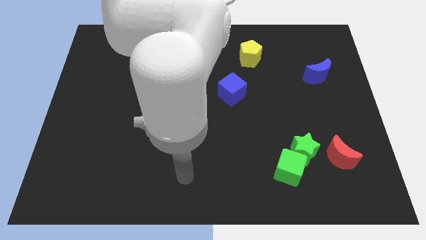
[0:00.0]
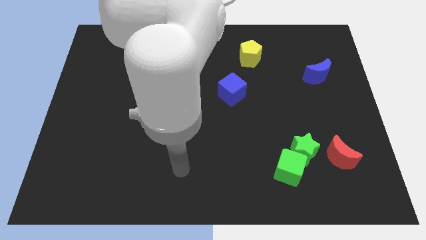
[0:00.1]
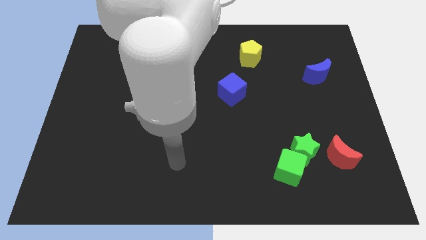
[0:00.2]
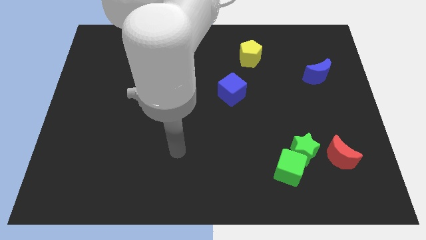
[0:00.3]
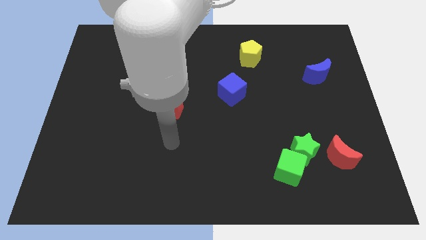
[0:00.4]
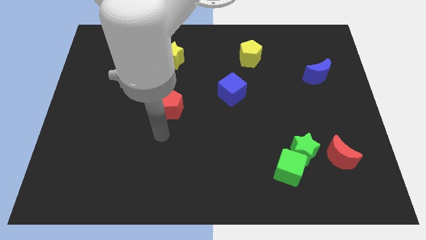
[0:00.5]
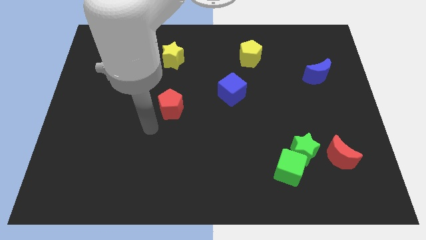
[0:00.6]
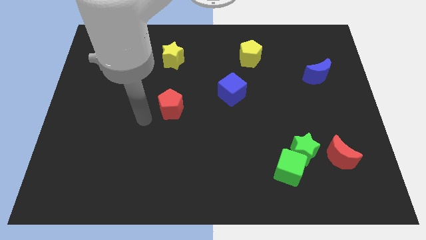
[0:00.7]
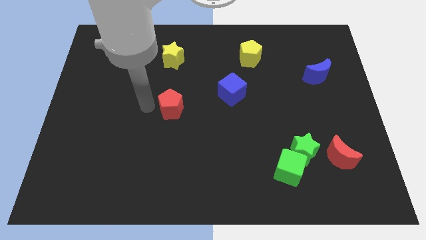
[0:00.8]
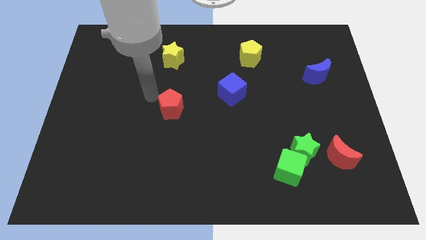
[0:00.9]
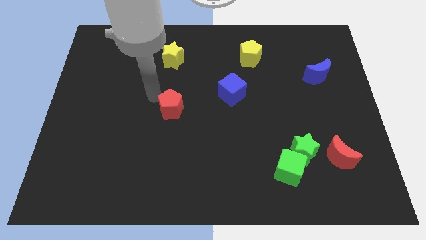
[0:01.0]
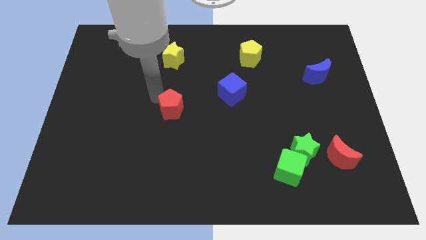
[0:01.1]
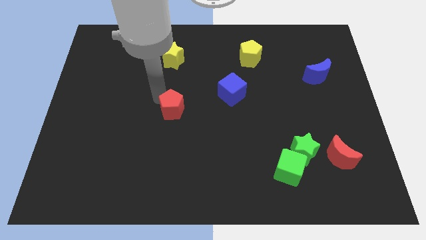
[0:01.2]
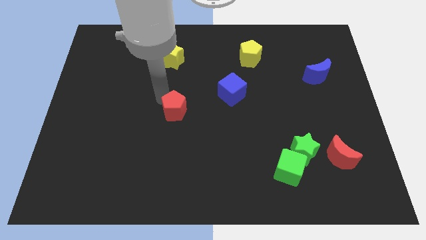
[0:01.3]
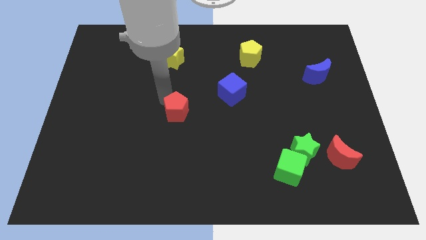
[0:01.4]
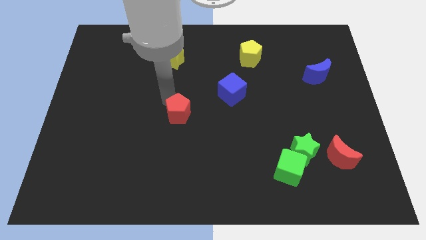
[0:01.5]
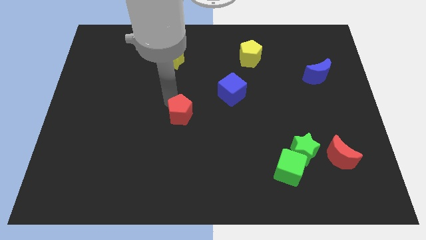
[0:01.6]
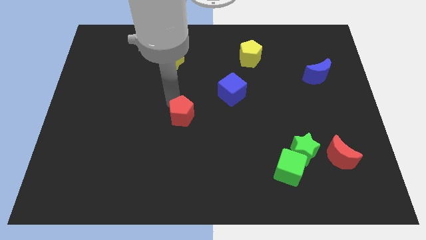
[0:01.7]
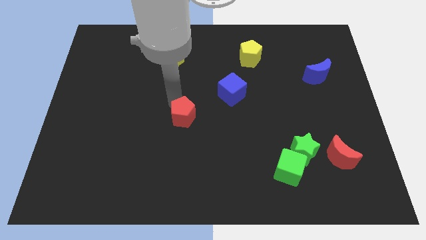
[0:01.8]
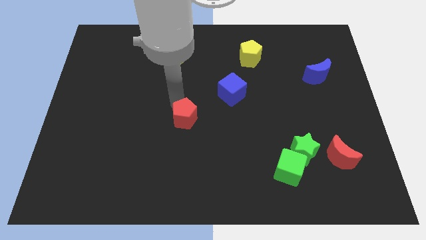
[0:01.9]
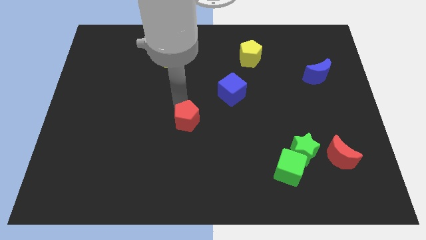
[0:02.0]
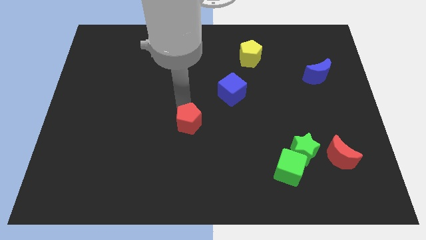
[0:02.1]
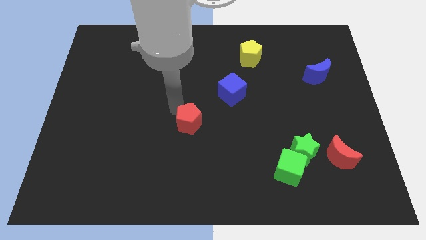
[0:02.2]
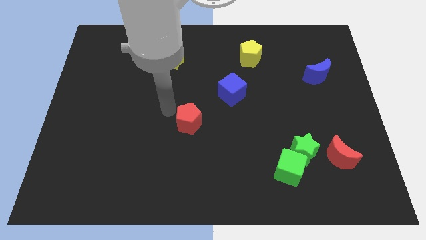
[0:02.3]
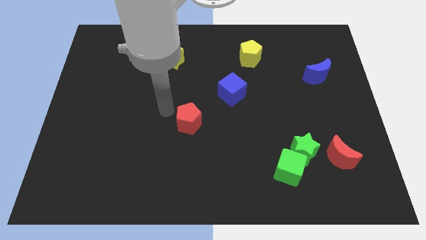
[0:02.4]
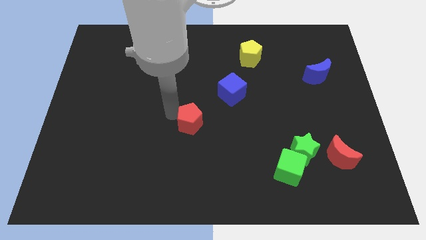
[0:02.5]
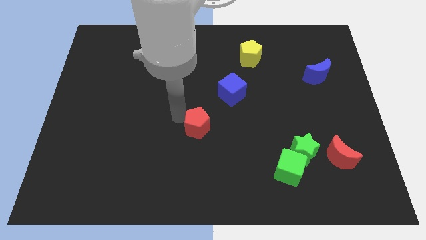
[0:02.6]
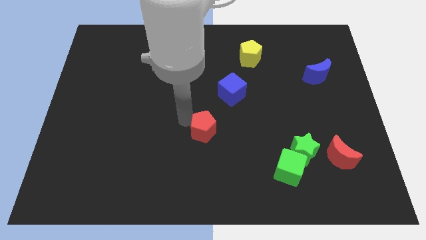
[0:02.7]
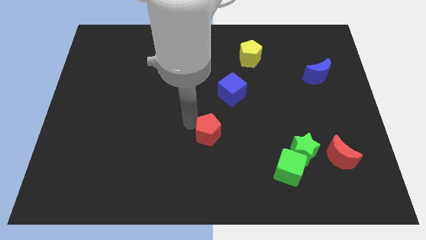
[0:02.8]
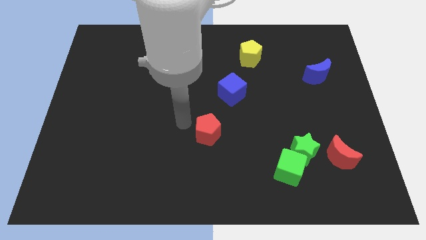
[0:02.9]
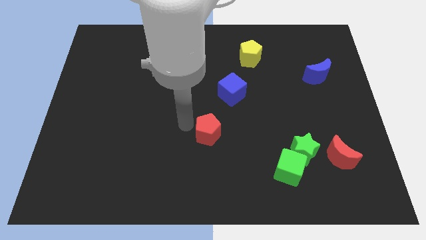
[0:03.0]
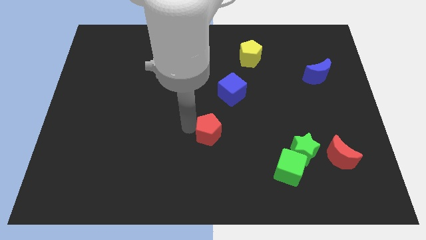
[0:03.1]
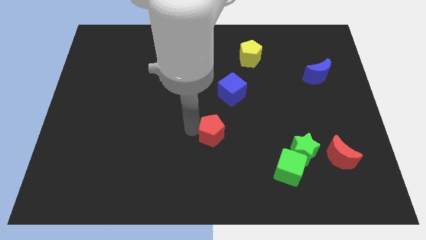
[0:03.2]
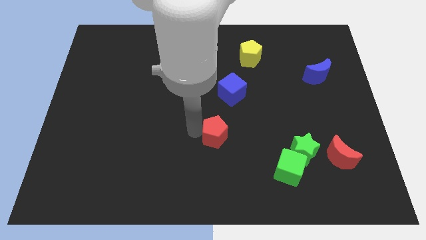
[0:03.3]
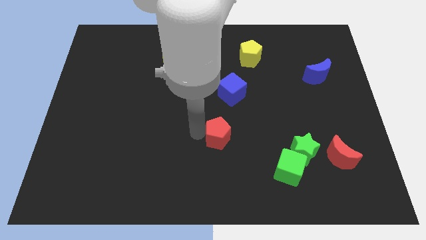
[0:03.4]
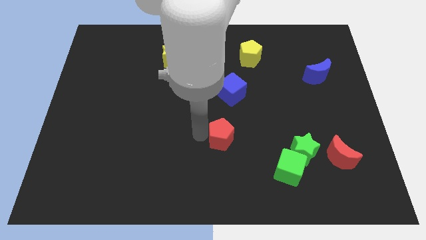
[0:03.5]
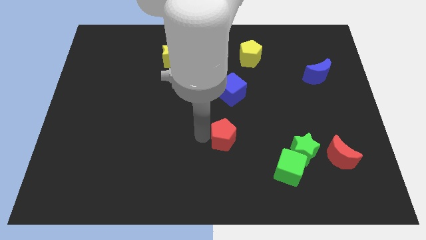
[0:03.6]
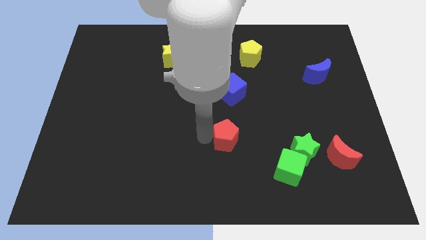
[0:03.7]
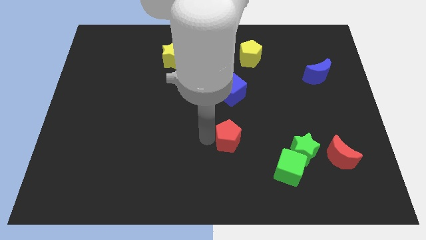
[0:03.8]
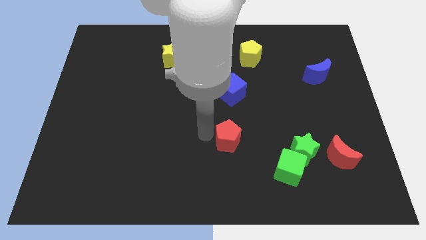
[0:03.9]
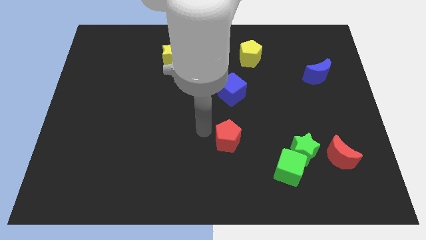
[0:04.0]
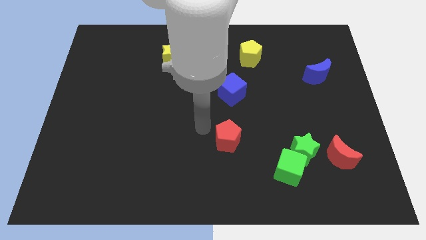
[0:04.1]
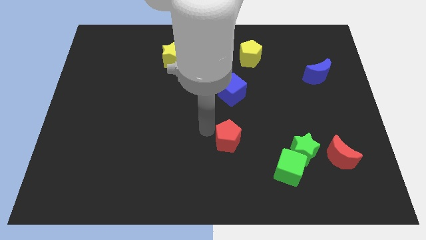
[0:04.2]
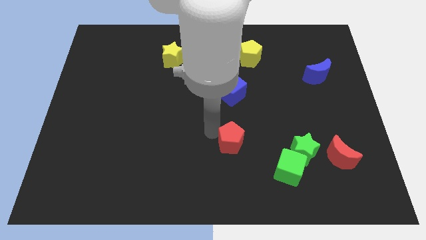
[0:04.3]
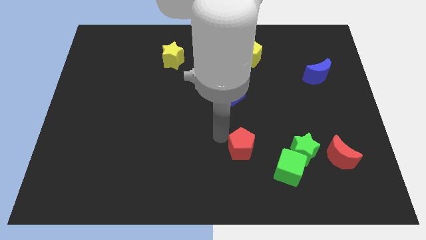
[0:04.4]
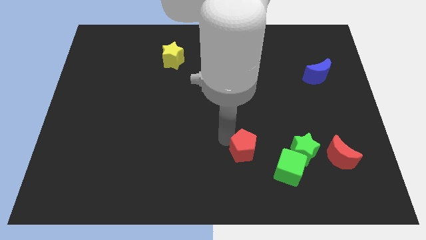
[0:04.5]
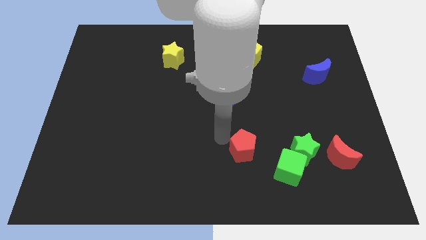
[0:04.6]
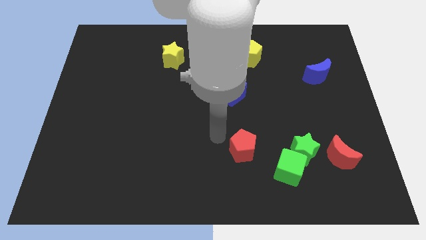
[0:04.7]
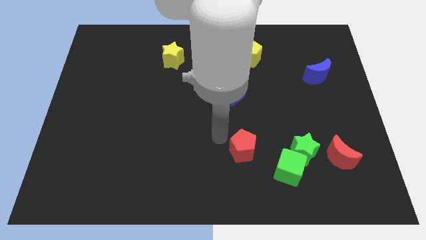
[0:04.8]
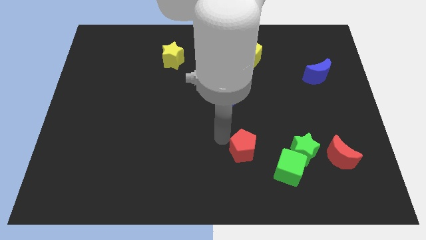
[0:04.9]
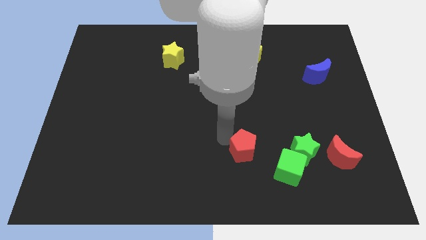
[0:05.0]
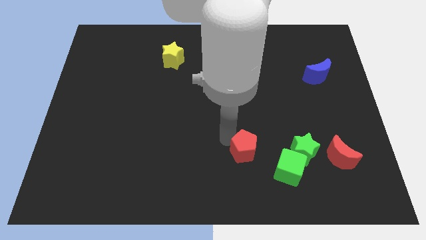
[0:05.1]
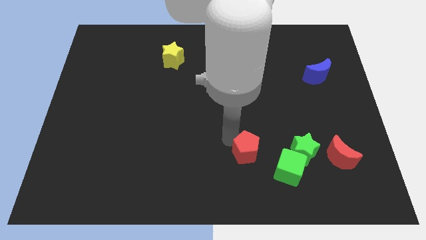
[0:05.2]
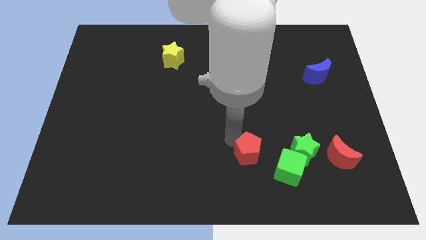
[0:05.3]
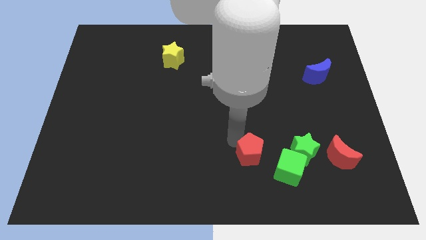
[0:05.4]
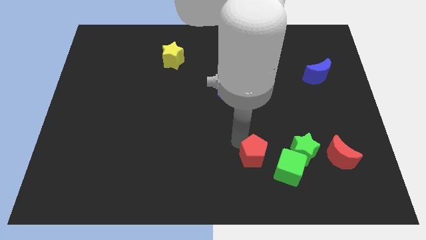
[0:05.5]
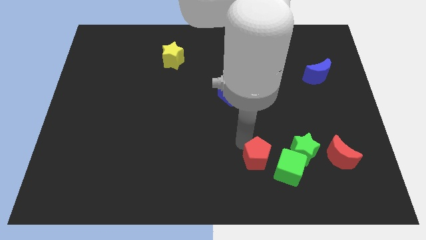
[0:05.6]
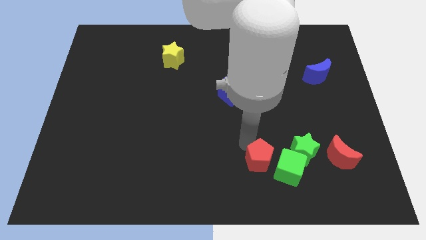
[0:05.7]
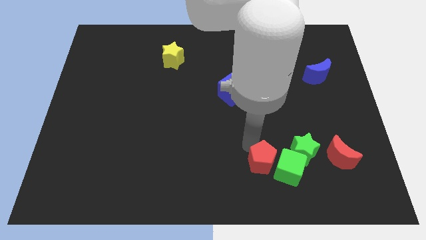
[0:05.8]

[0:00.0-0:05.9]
move the red pentagon to the green cube

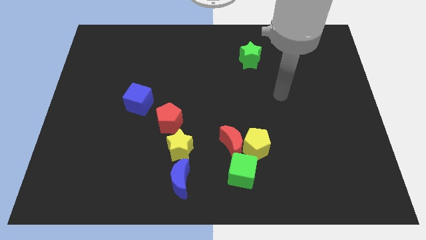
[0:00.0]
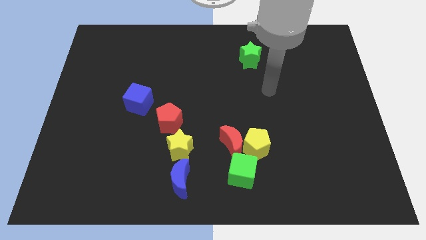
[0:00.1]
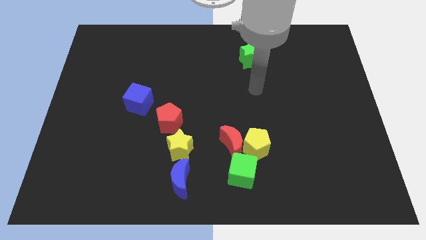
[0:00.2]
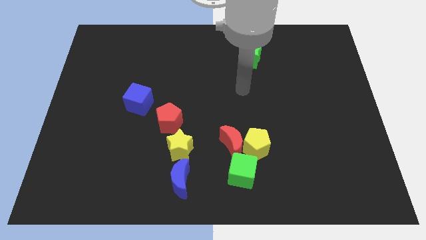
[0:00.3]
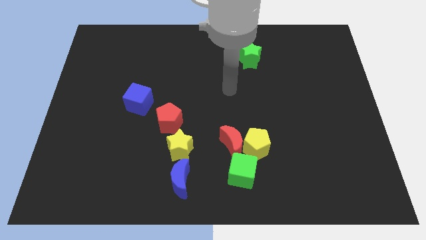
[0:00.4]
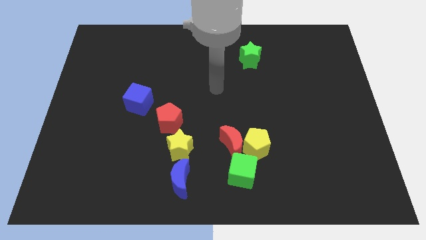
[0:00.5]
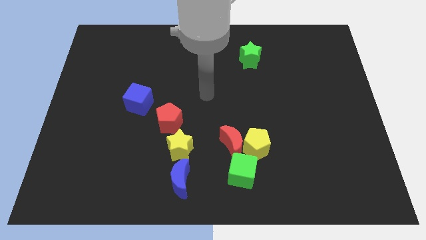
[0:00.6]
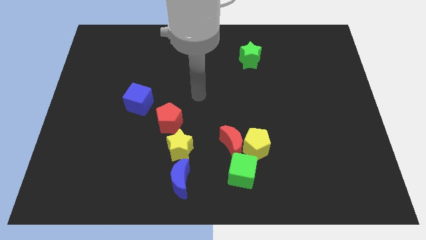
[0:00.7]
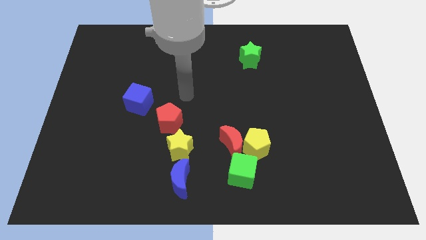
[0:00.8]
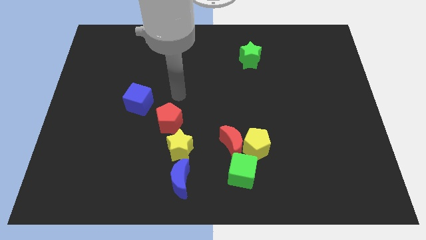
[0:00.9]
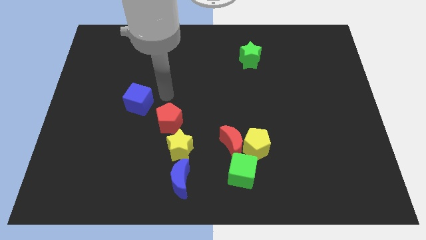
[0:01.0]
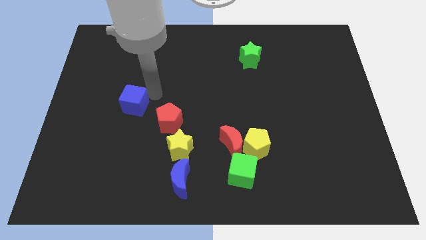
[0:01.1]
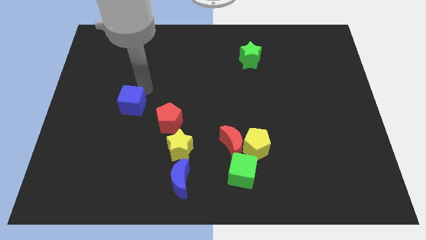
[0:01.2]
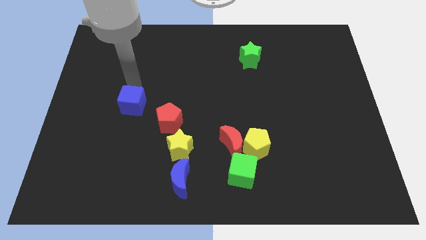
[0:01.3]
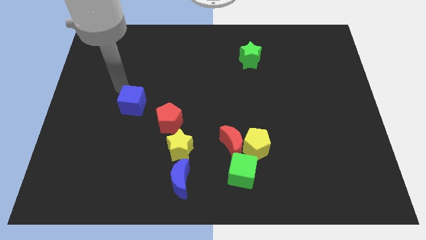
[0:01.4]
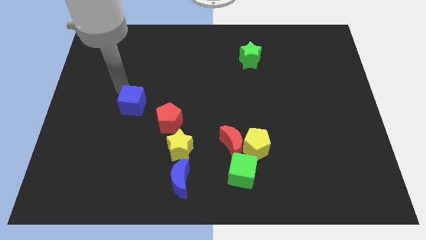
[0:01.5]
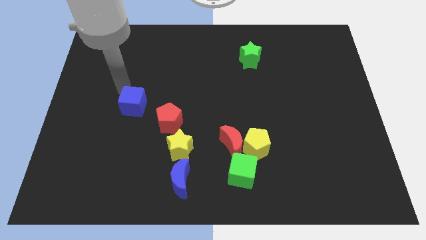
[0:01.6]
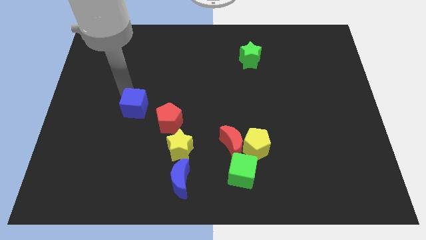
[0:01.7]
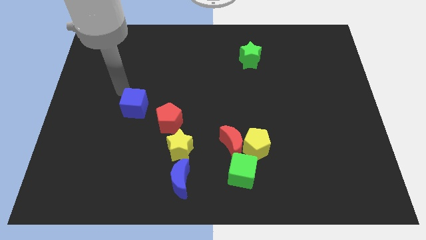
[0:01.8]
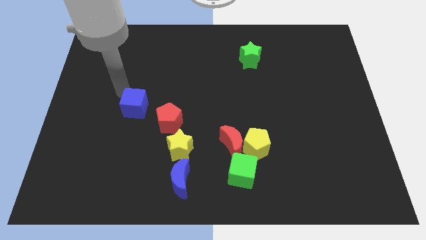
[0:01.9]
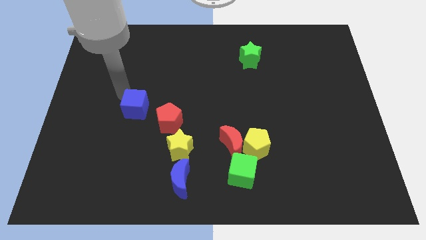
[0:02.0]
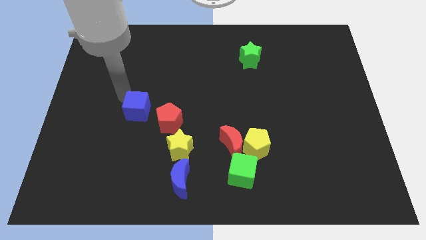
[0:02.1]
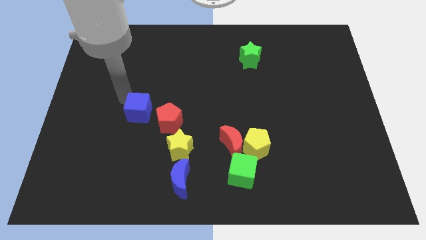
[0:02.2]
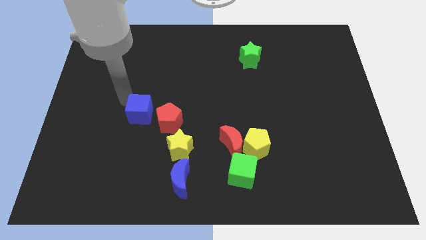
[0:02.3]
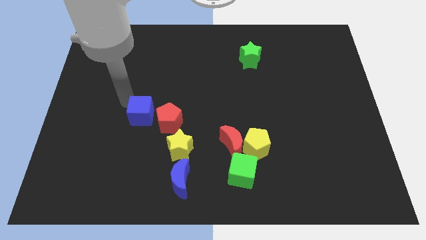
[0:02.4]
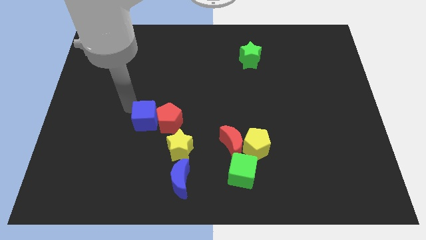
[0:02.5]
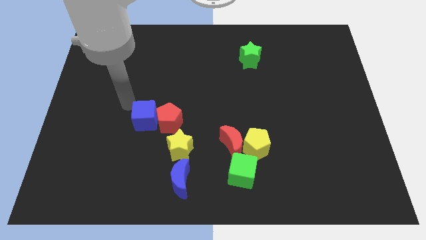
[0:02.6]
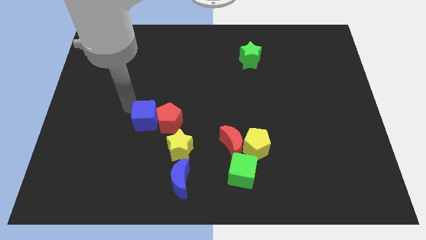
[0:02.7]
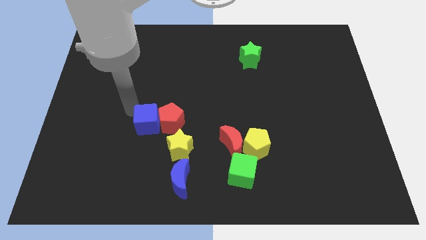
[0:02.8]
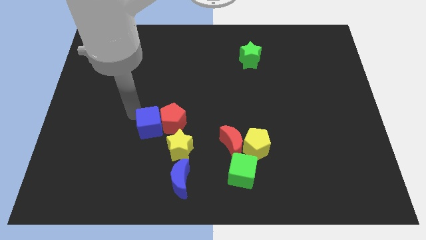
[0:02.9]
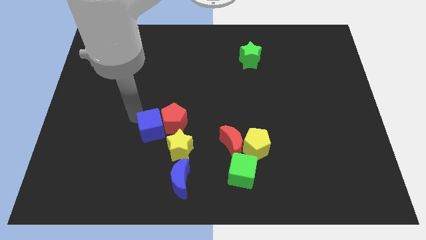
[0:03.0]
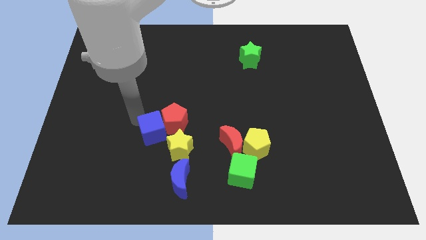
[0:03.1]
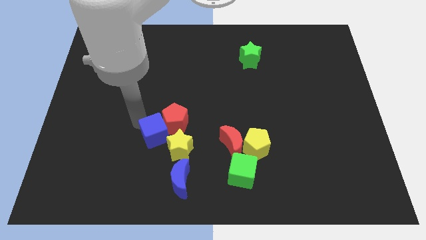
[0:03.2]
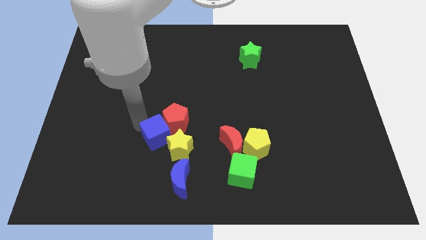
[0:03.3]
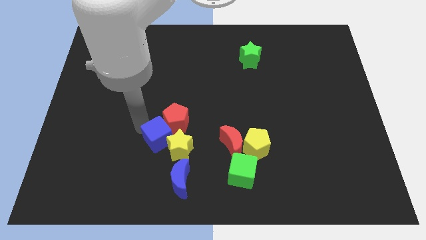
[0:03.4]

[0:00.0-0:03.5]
move the blue cube close to the yellow star
